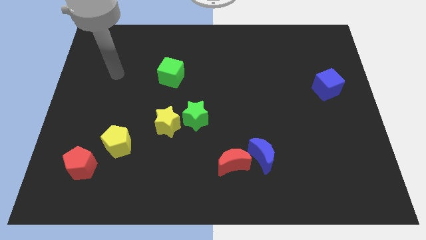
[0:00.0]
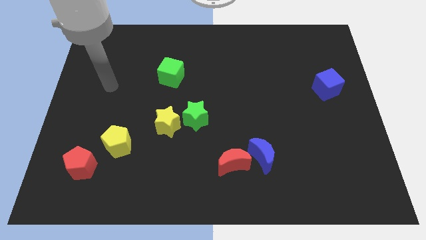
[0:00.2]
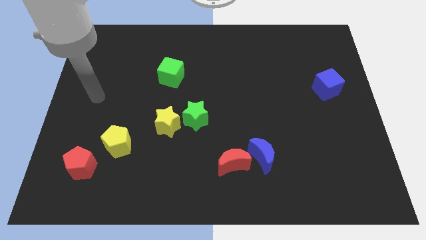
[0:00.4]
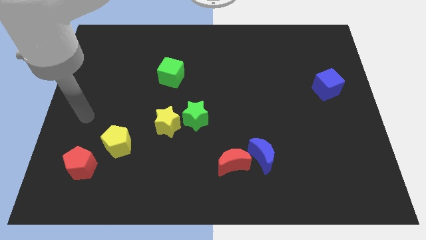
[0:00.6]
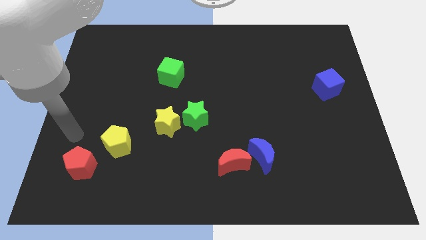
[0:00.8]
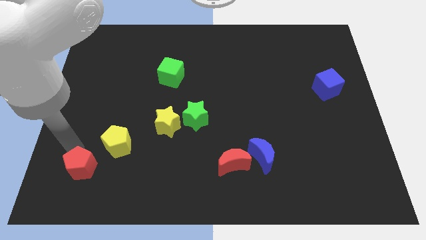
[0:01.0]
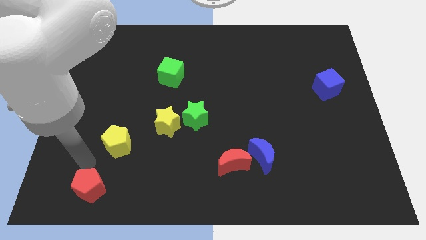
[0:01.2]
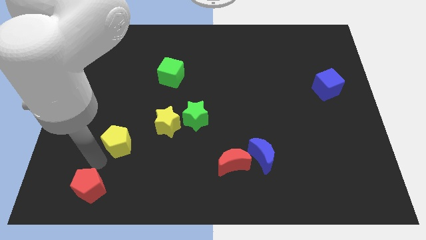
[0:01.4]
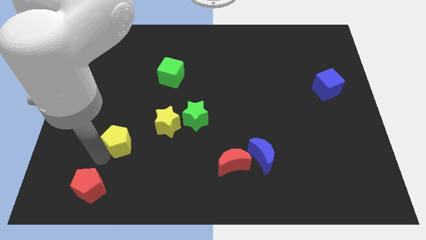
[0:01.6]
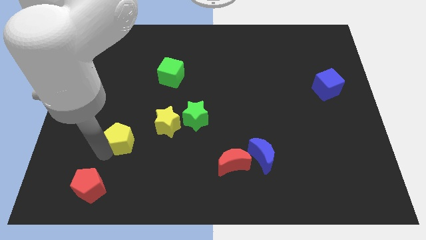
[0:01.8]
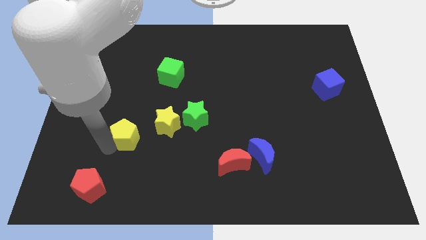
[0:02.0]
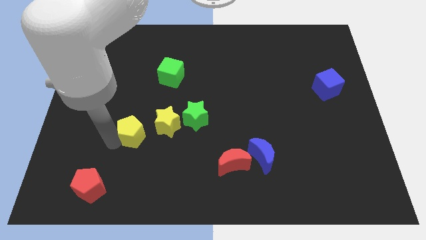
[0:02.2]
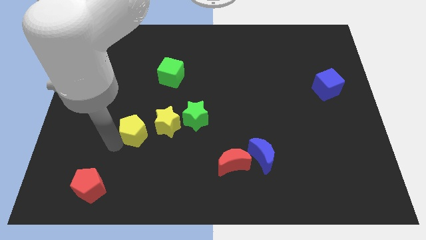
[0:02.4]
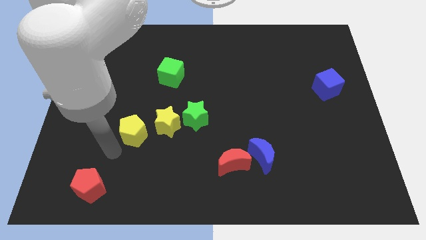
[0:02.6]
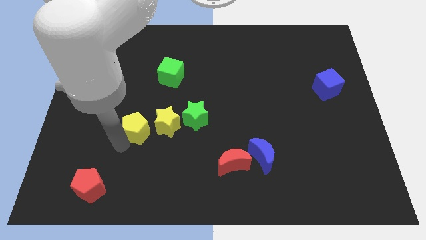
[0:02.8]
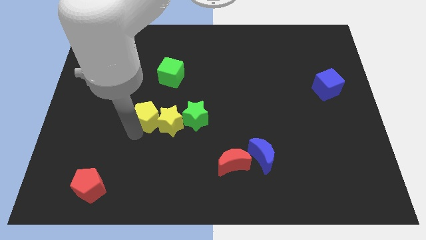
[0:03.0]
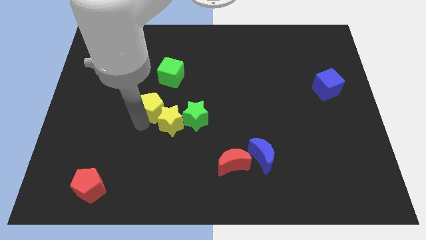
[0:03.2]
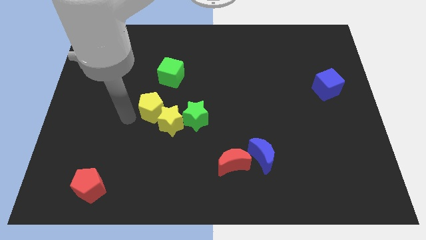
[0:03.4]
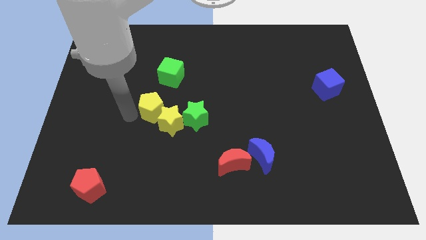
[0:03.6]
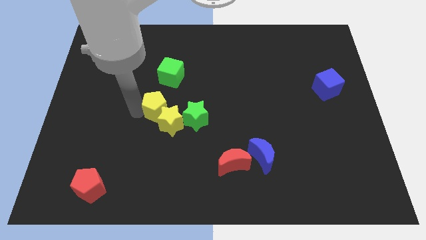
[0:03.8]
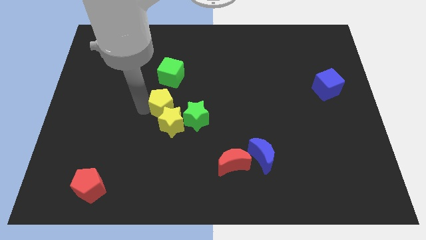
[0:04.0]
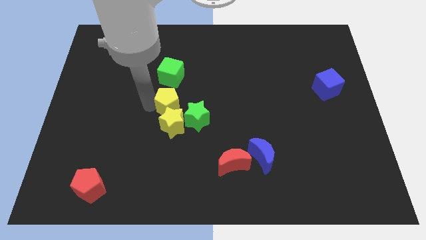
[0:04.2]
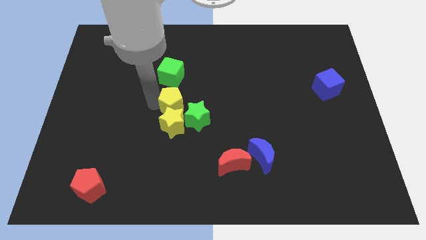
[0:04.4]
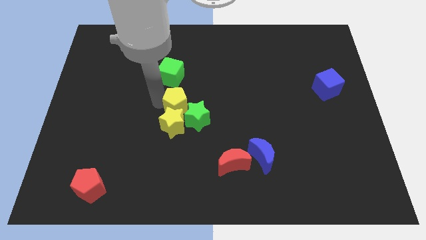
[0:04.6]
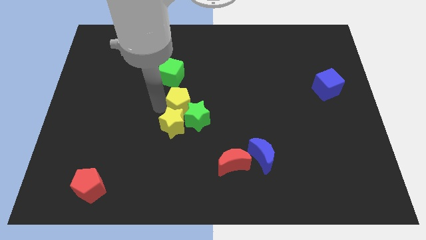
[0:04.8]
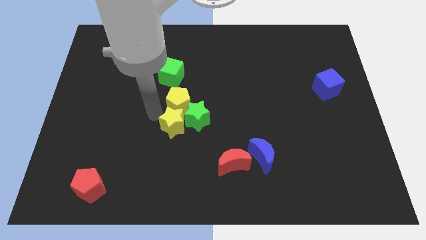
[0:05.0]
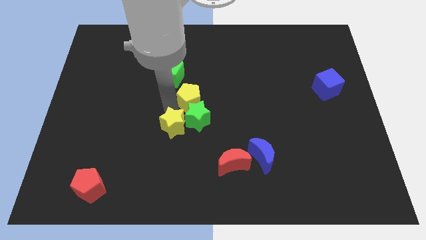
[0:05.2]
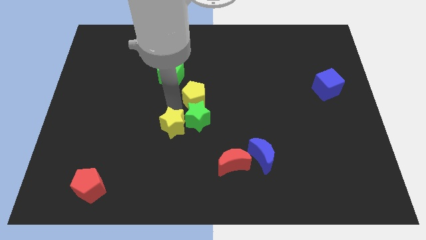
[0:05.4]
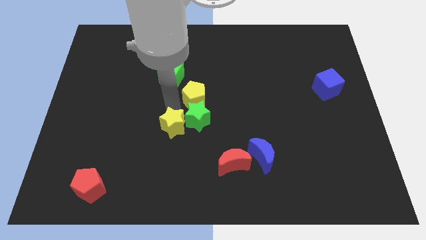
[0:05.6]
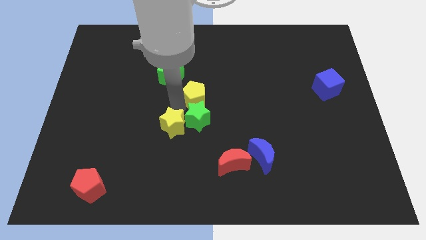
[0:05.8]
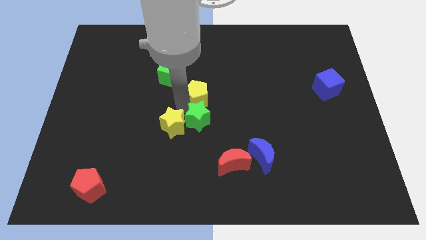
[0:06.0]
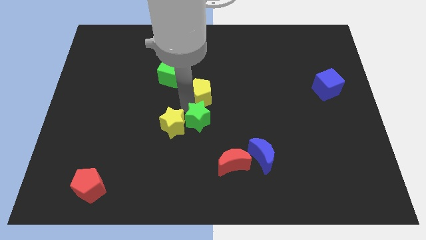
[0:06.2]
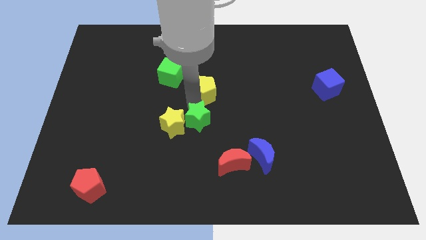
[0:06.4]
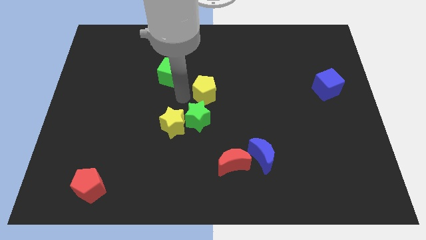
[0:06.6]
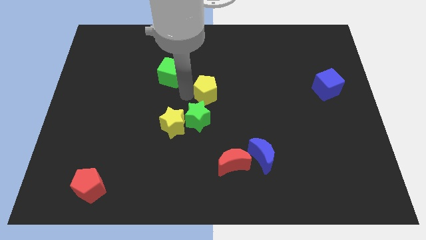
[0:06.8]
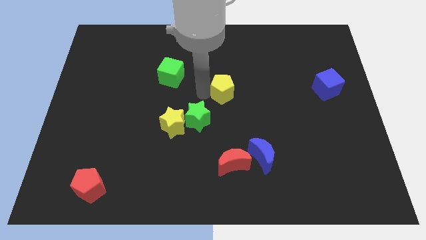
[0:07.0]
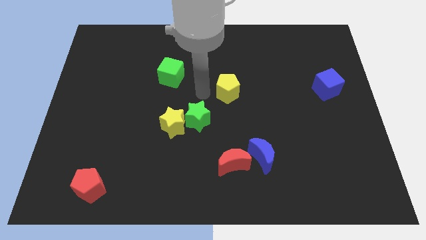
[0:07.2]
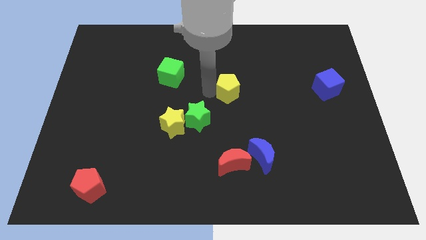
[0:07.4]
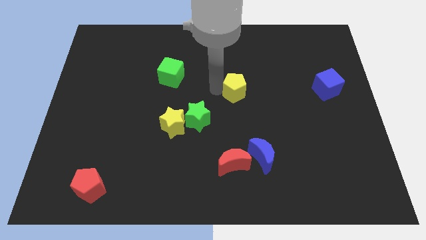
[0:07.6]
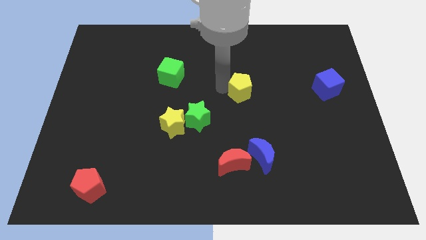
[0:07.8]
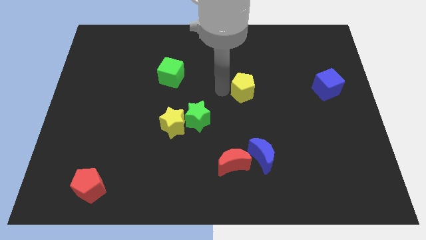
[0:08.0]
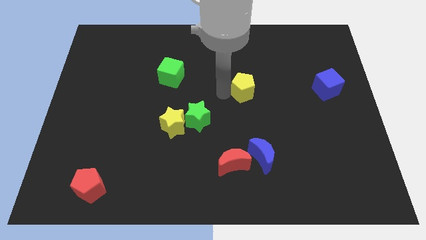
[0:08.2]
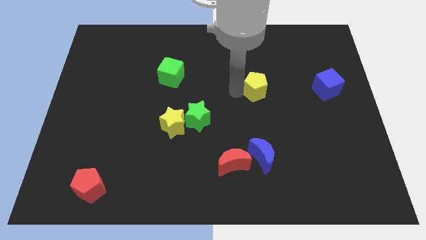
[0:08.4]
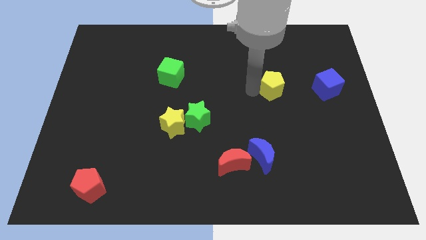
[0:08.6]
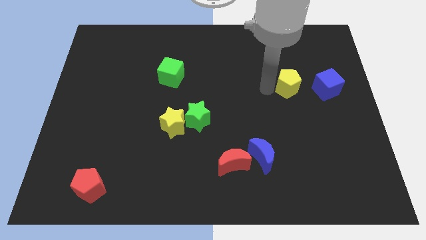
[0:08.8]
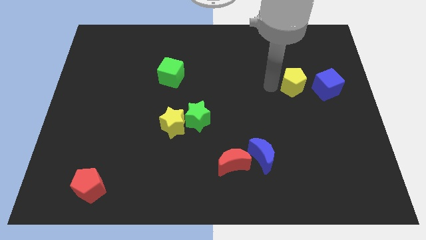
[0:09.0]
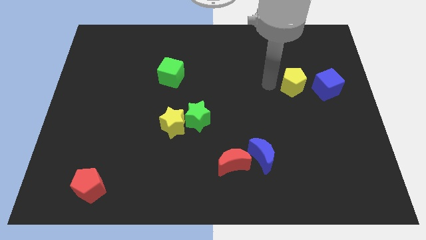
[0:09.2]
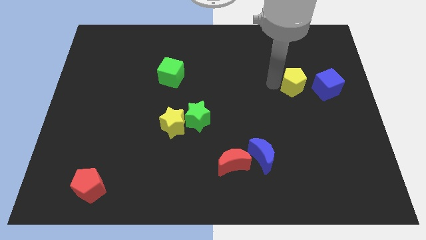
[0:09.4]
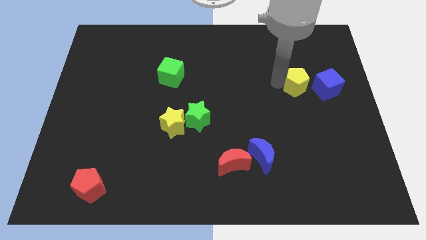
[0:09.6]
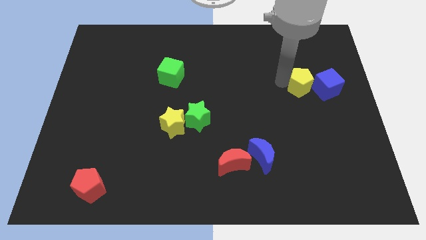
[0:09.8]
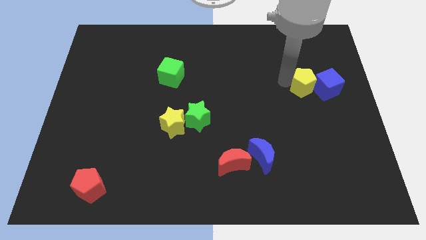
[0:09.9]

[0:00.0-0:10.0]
slide the yellow pentagon towards the blue cube

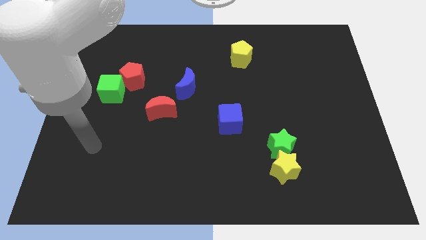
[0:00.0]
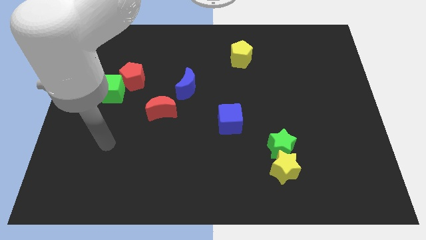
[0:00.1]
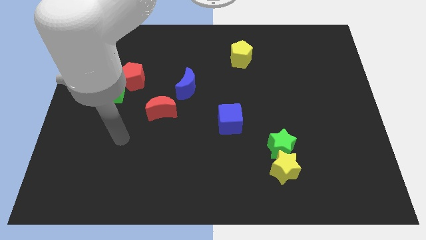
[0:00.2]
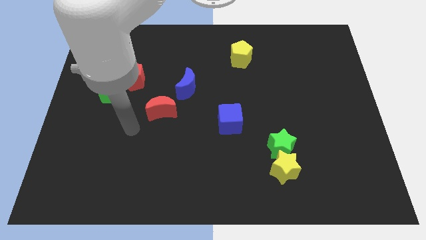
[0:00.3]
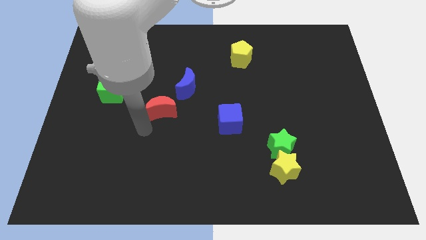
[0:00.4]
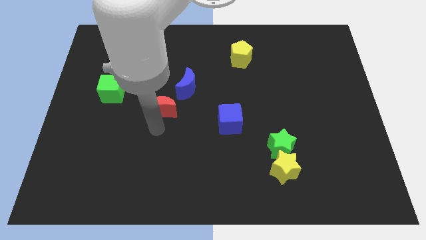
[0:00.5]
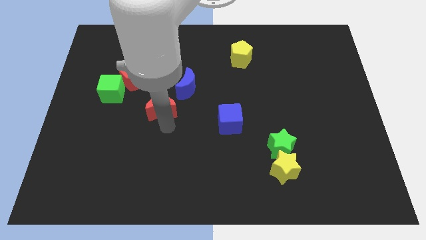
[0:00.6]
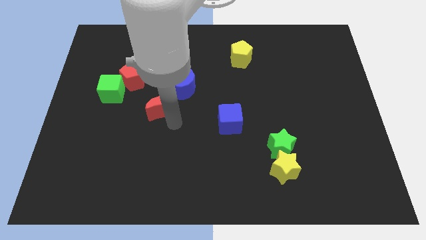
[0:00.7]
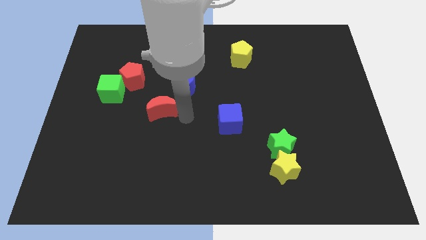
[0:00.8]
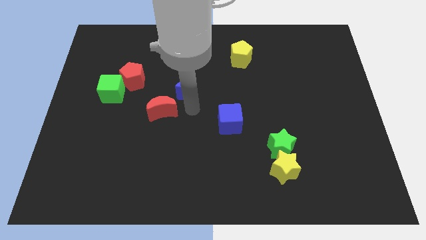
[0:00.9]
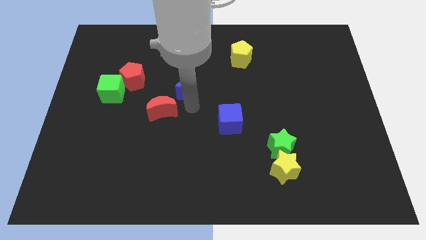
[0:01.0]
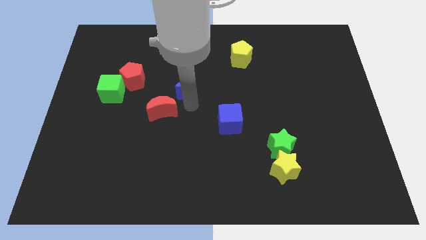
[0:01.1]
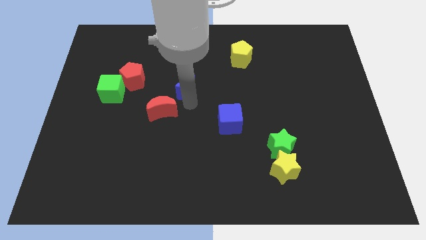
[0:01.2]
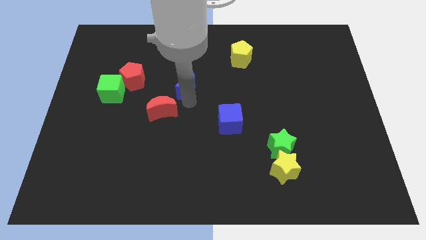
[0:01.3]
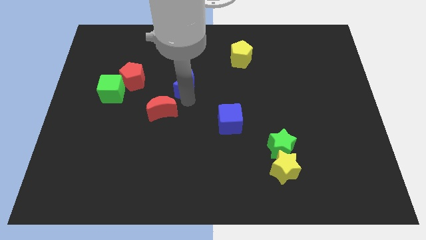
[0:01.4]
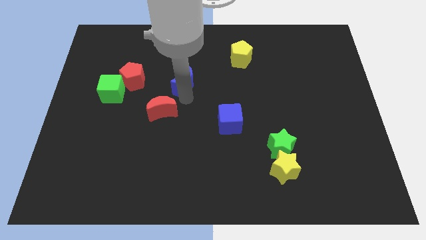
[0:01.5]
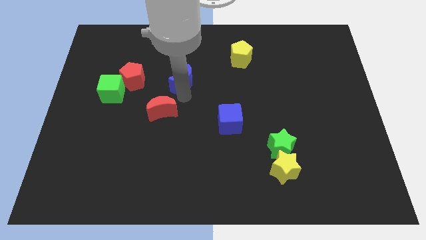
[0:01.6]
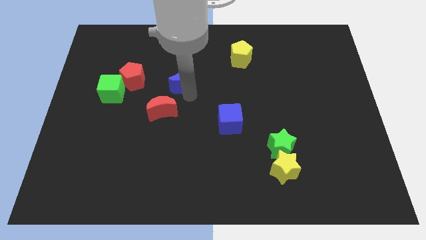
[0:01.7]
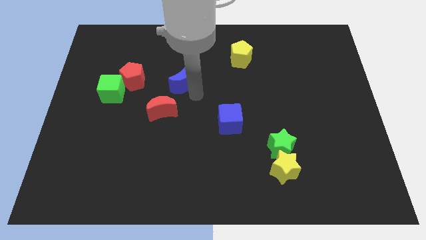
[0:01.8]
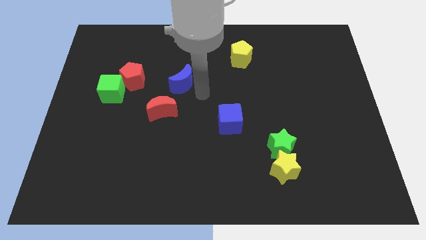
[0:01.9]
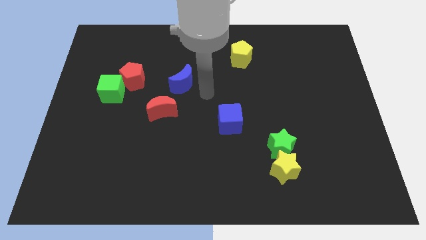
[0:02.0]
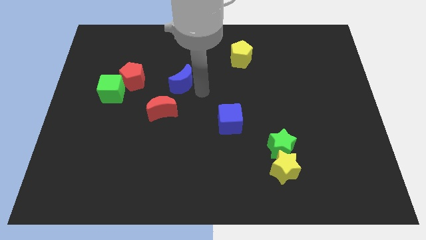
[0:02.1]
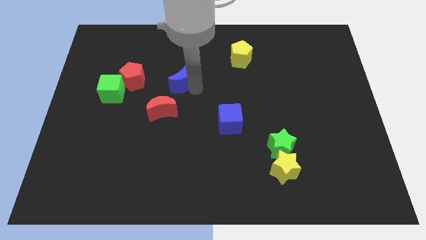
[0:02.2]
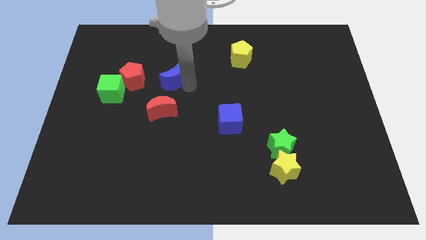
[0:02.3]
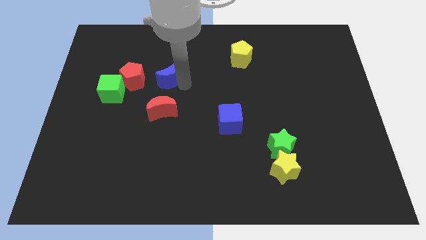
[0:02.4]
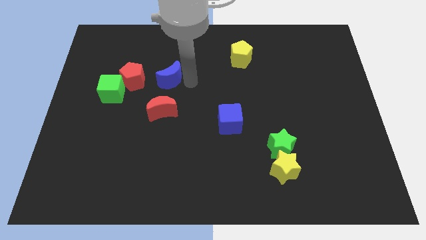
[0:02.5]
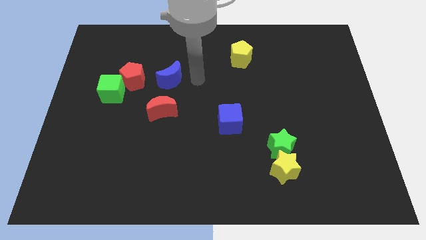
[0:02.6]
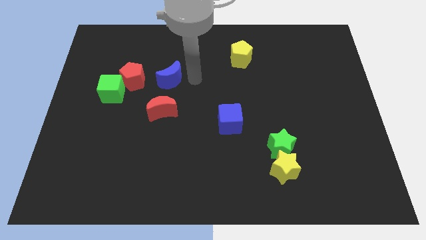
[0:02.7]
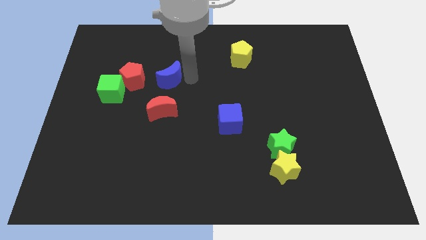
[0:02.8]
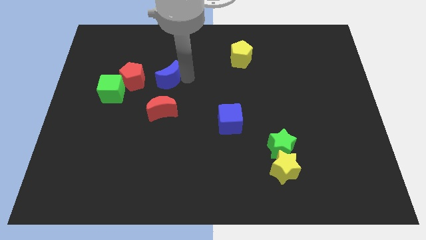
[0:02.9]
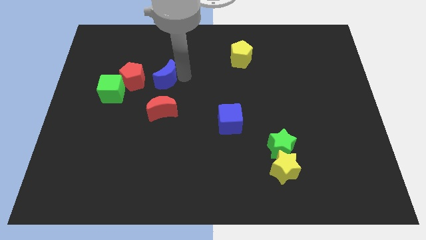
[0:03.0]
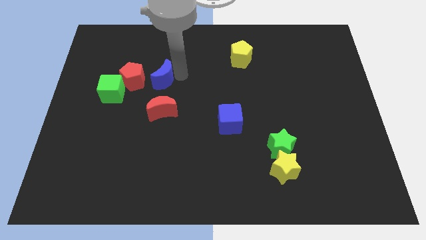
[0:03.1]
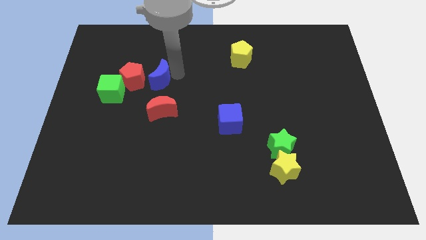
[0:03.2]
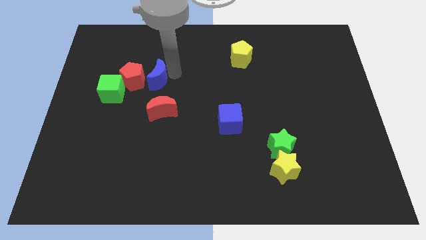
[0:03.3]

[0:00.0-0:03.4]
slide the blue moon close to the red pentagon
